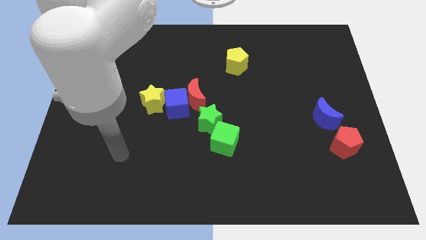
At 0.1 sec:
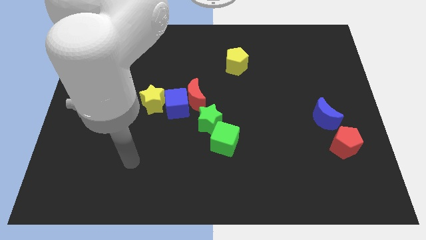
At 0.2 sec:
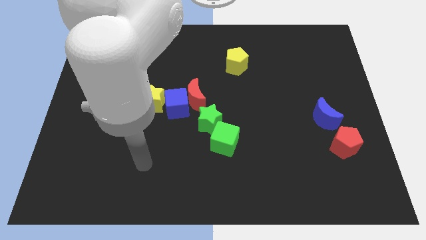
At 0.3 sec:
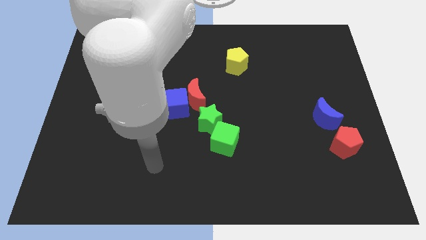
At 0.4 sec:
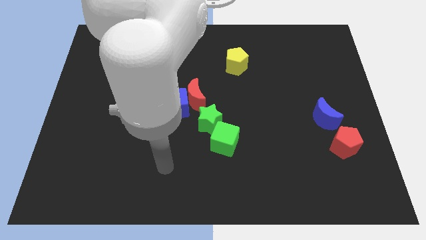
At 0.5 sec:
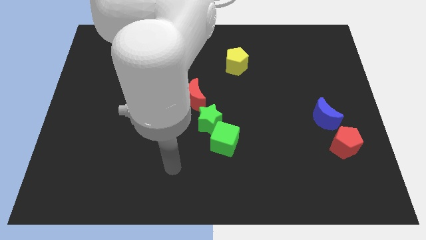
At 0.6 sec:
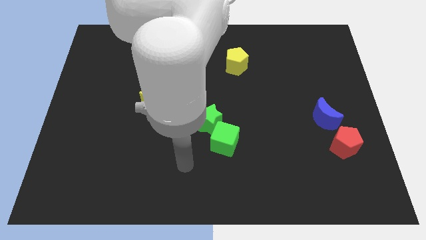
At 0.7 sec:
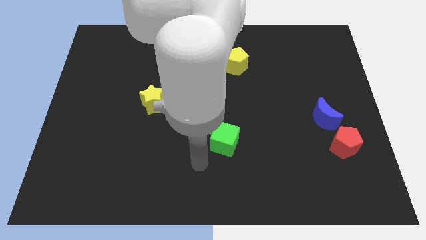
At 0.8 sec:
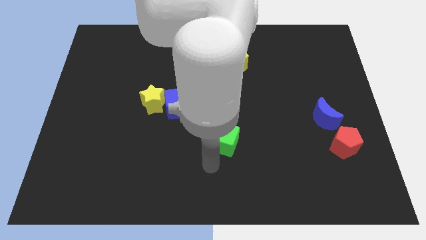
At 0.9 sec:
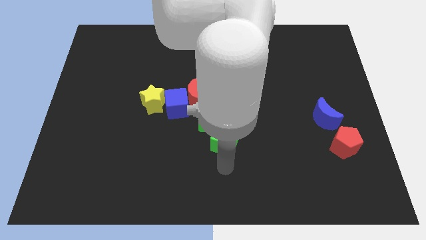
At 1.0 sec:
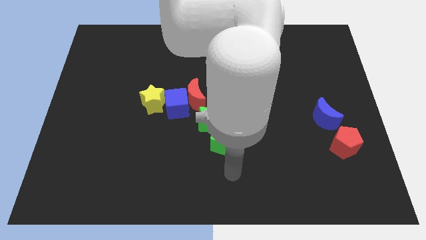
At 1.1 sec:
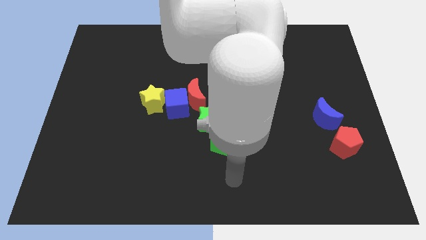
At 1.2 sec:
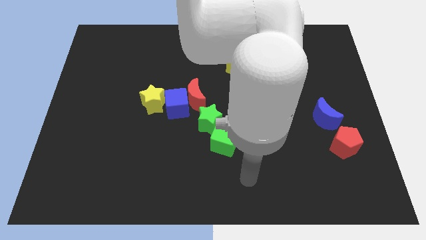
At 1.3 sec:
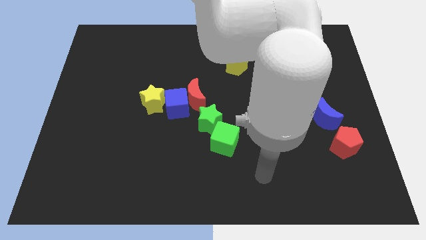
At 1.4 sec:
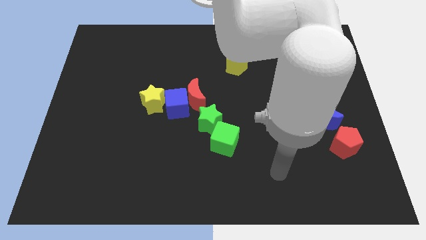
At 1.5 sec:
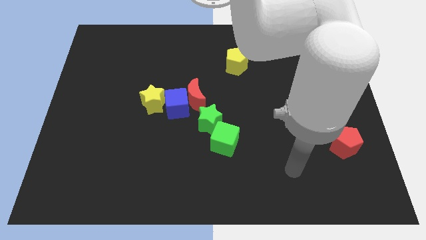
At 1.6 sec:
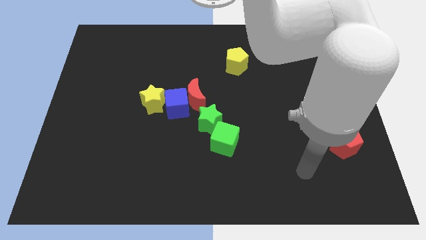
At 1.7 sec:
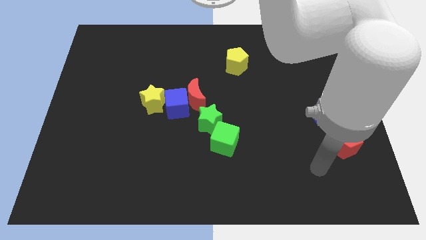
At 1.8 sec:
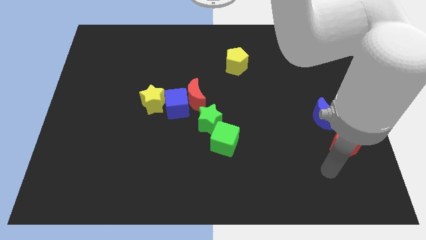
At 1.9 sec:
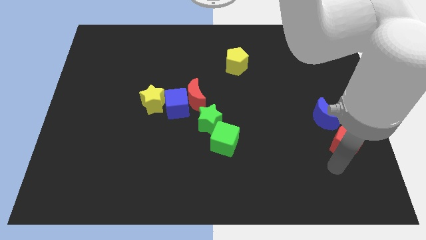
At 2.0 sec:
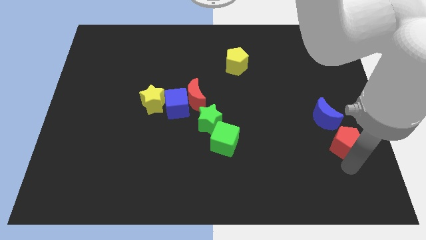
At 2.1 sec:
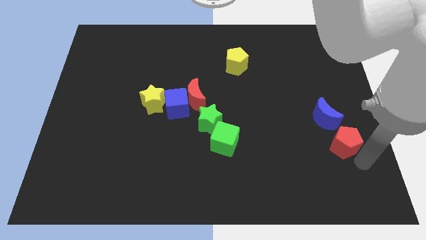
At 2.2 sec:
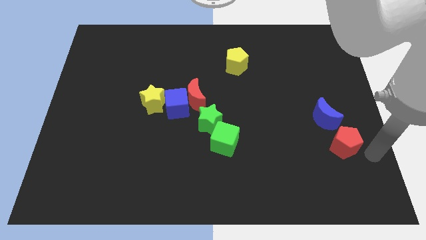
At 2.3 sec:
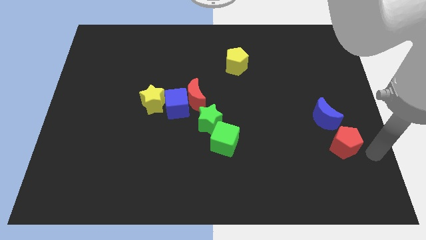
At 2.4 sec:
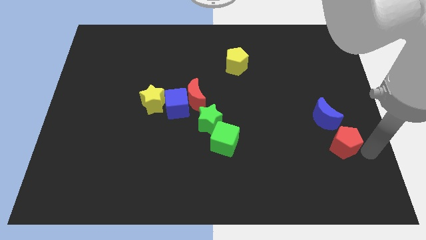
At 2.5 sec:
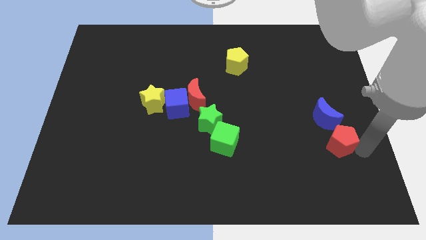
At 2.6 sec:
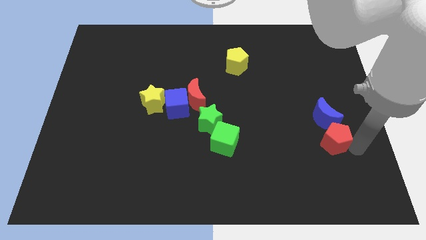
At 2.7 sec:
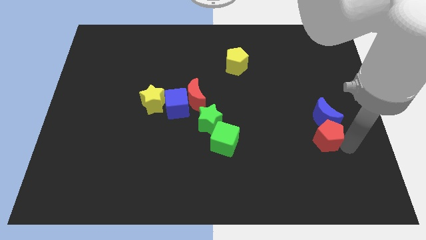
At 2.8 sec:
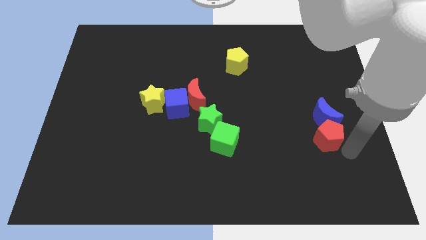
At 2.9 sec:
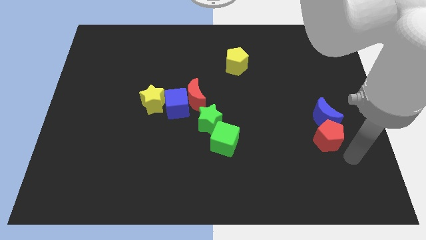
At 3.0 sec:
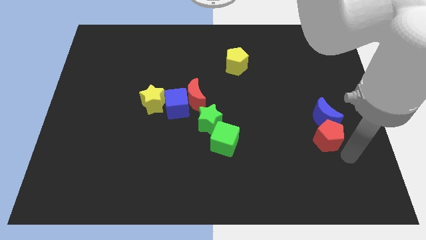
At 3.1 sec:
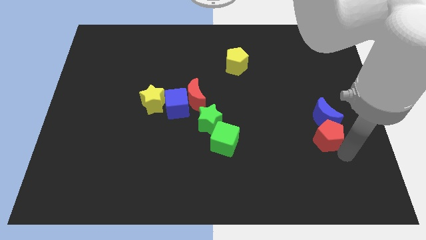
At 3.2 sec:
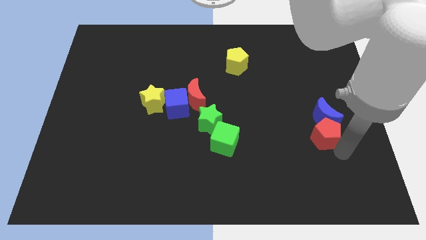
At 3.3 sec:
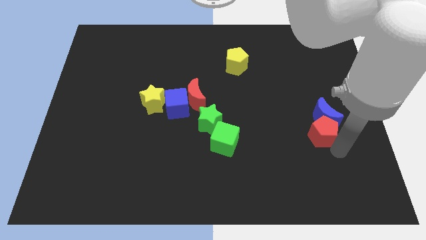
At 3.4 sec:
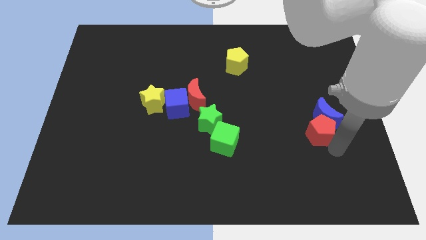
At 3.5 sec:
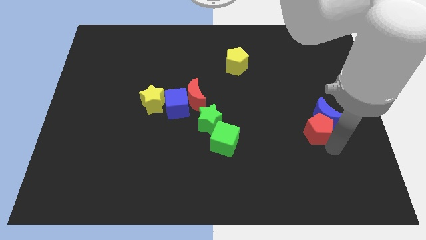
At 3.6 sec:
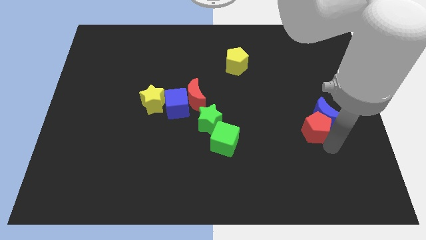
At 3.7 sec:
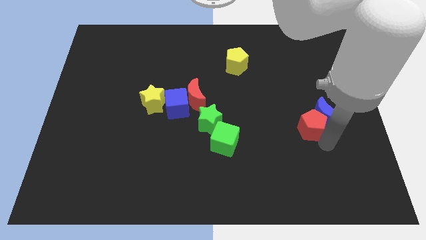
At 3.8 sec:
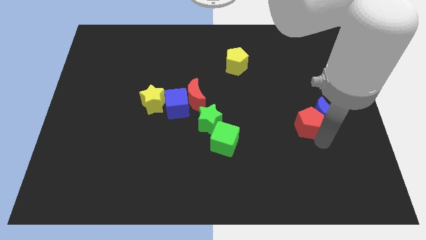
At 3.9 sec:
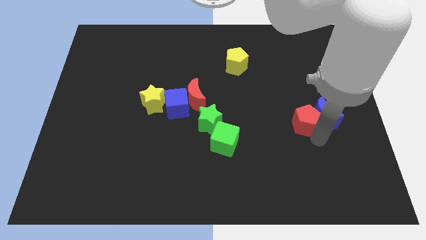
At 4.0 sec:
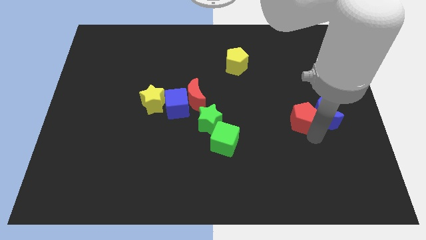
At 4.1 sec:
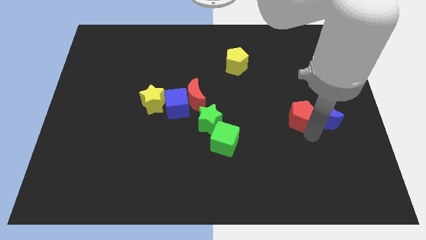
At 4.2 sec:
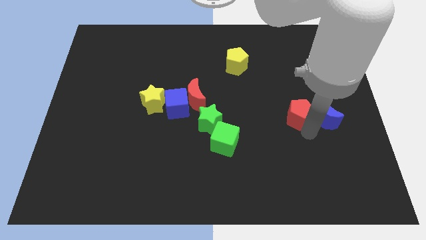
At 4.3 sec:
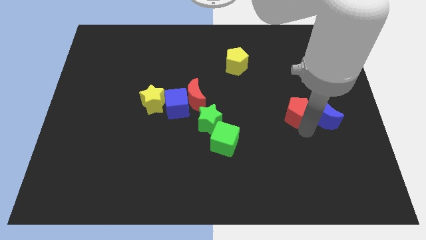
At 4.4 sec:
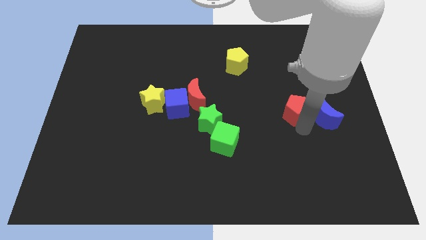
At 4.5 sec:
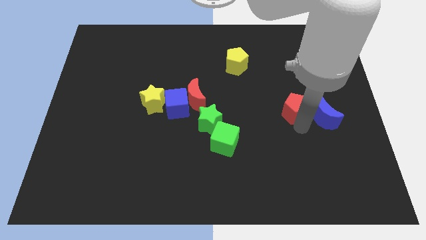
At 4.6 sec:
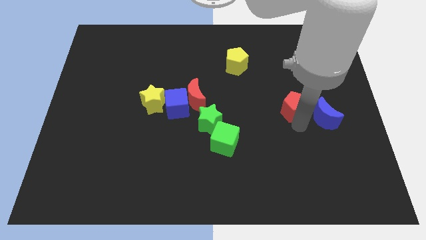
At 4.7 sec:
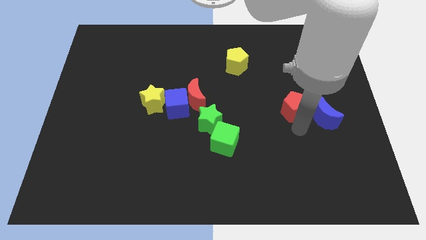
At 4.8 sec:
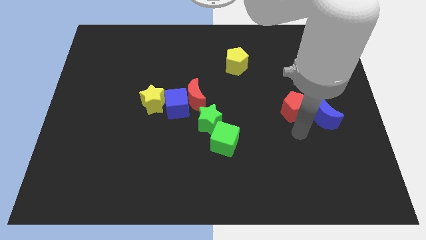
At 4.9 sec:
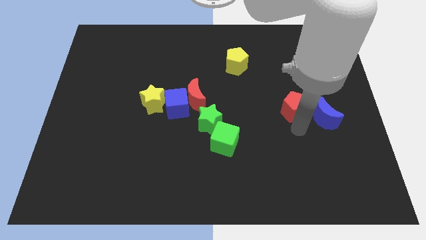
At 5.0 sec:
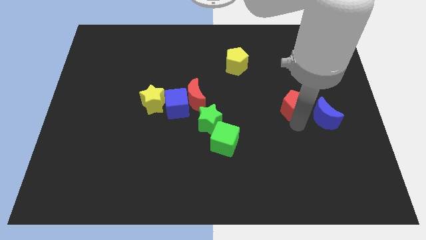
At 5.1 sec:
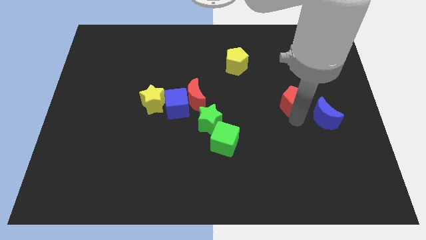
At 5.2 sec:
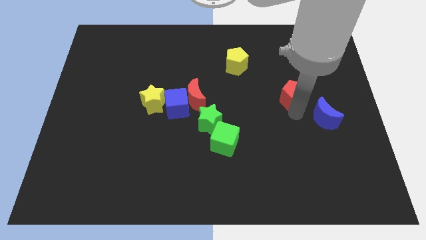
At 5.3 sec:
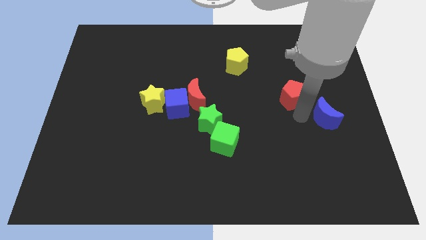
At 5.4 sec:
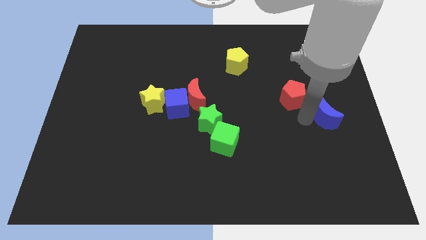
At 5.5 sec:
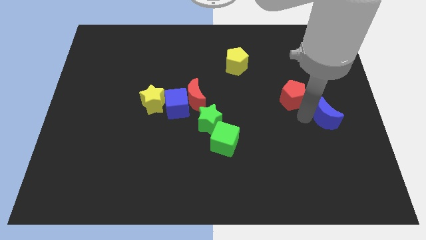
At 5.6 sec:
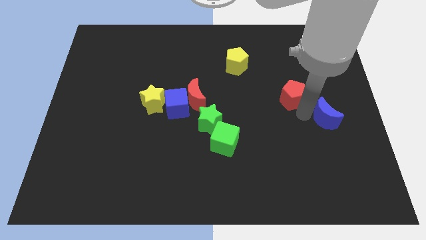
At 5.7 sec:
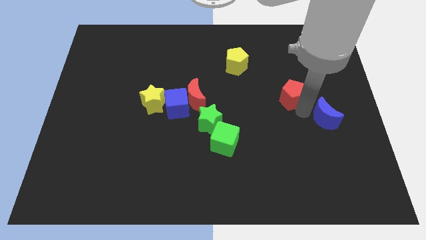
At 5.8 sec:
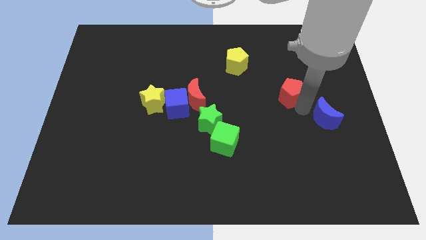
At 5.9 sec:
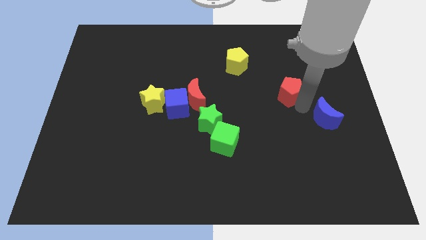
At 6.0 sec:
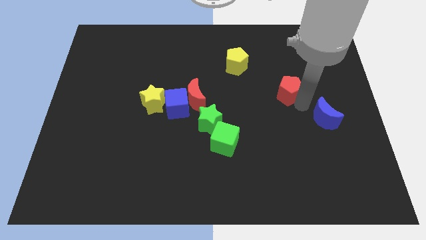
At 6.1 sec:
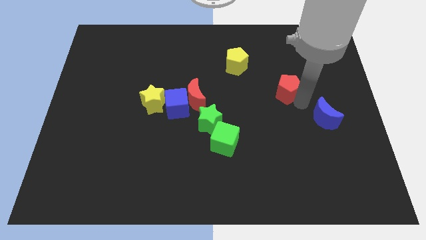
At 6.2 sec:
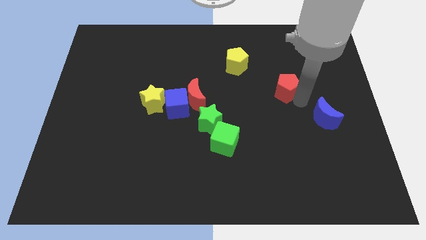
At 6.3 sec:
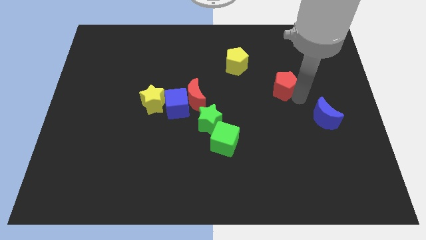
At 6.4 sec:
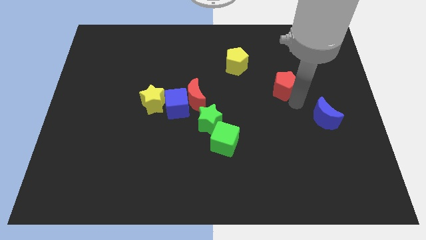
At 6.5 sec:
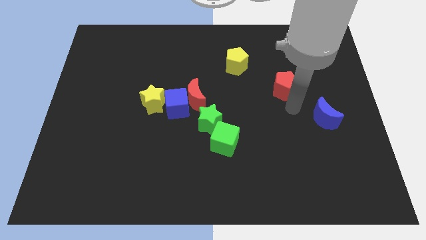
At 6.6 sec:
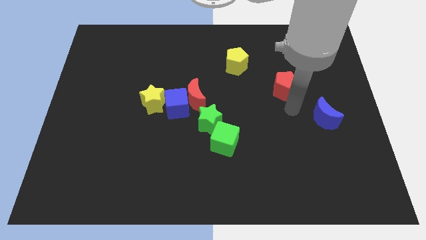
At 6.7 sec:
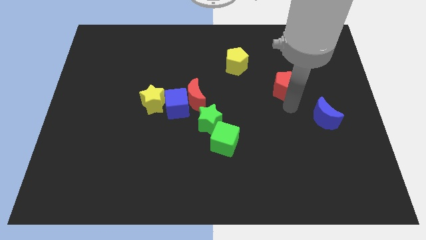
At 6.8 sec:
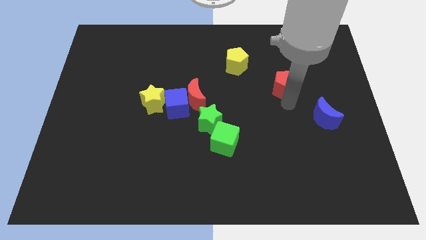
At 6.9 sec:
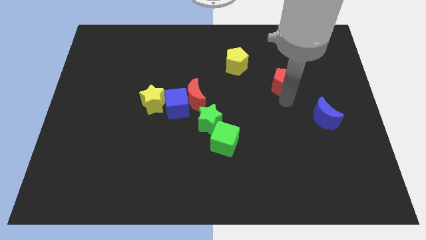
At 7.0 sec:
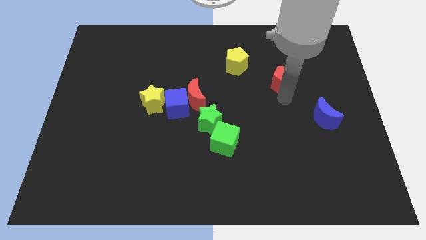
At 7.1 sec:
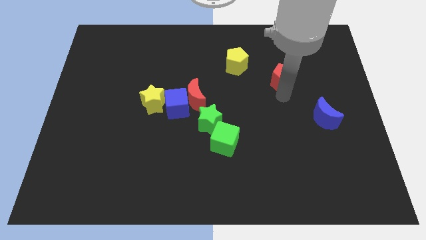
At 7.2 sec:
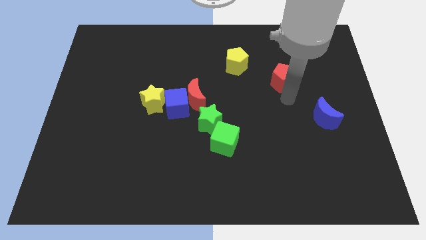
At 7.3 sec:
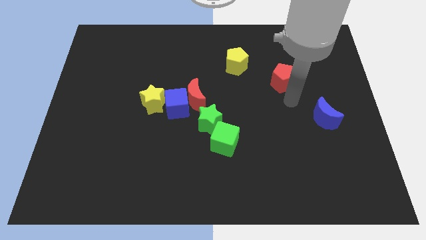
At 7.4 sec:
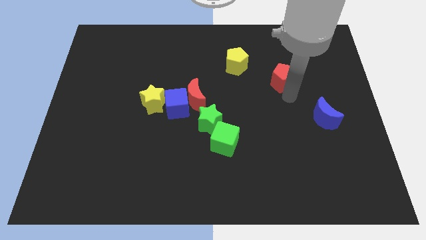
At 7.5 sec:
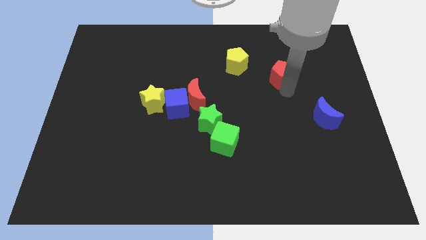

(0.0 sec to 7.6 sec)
put the red pentagon to the right of the yellow pentagon
